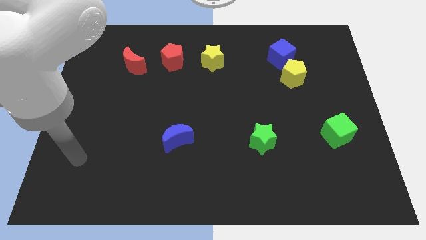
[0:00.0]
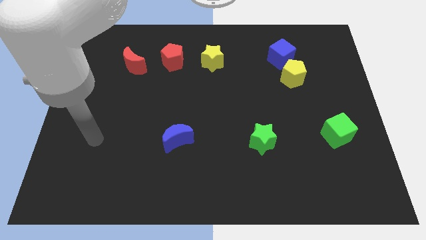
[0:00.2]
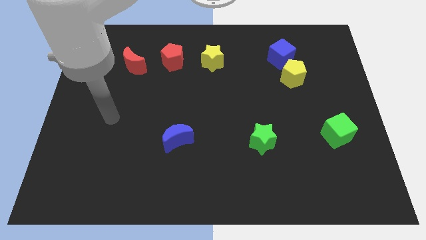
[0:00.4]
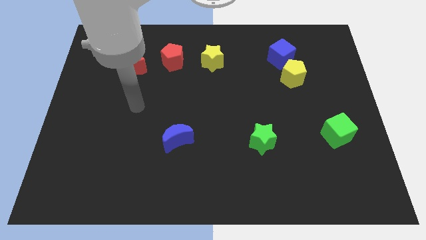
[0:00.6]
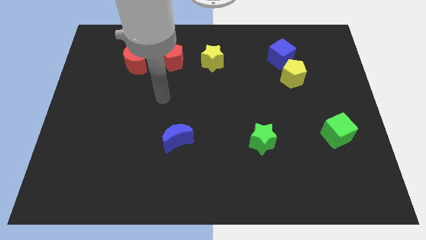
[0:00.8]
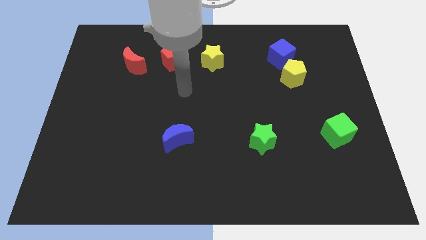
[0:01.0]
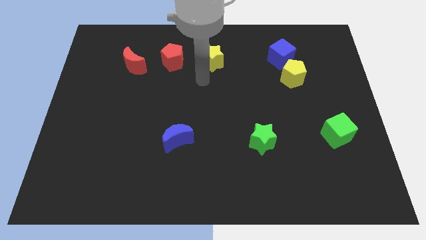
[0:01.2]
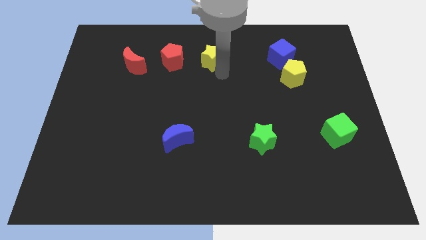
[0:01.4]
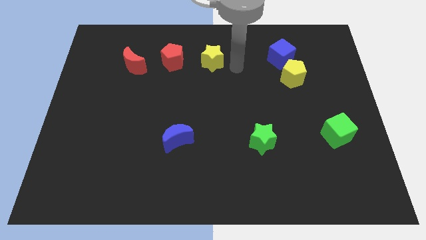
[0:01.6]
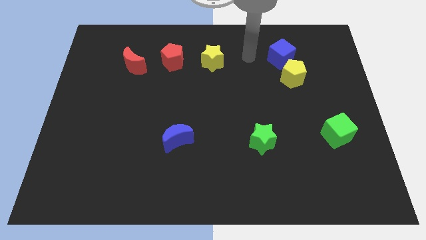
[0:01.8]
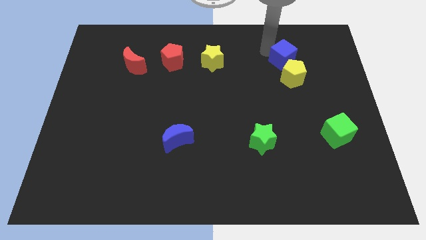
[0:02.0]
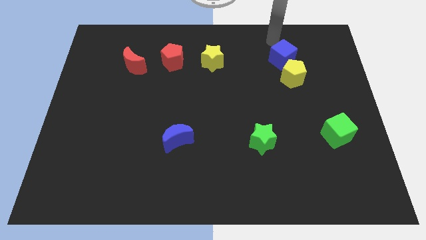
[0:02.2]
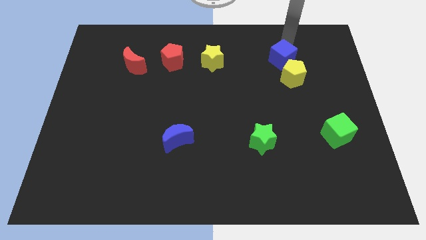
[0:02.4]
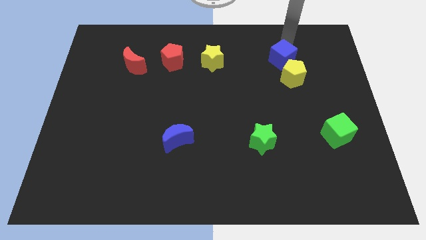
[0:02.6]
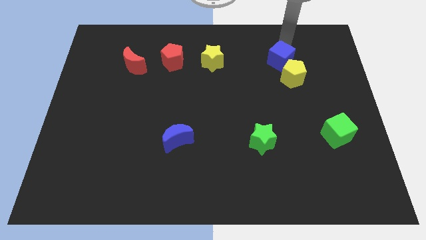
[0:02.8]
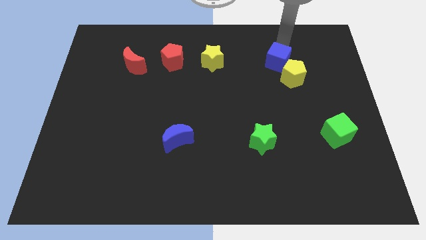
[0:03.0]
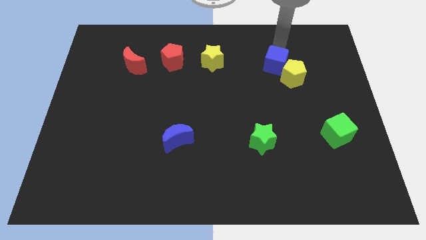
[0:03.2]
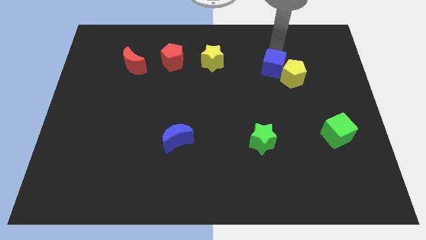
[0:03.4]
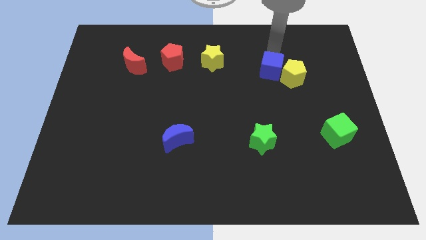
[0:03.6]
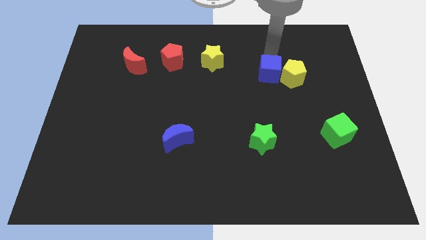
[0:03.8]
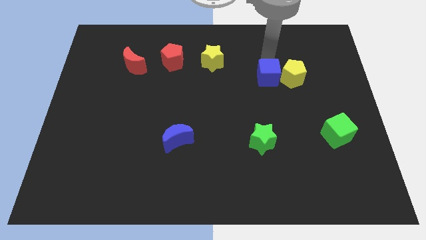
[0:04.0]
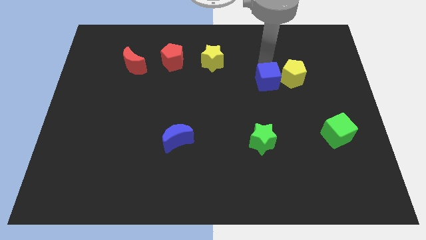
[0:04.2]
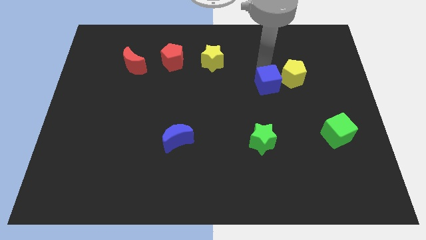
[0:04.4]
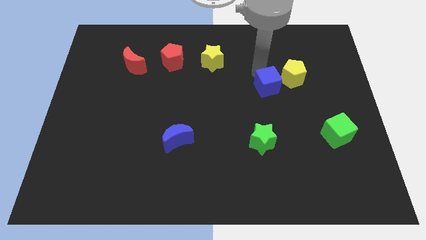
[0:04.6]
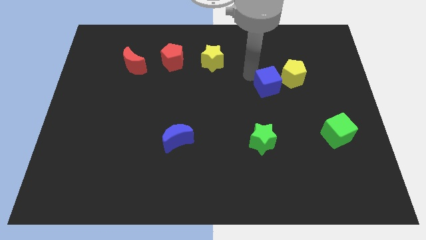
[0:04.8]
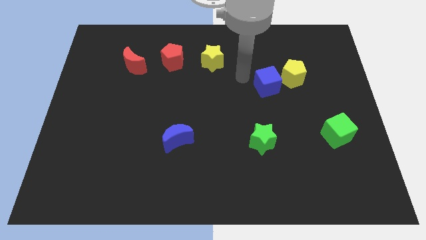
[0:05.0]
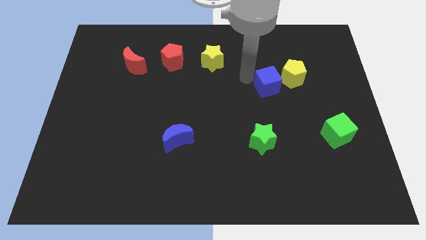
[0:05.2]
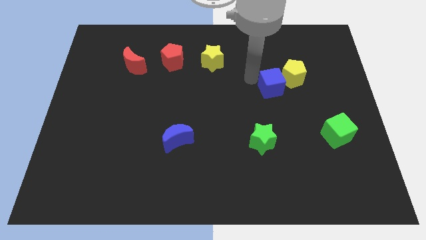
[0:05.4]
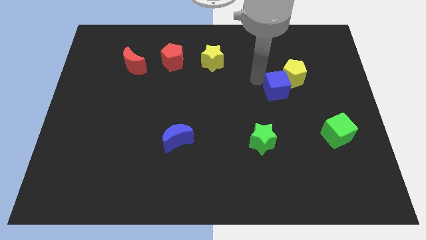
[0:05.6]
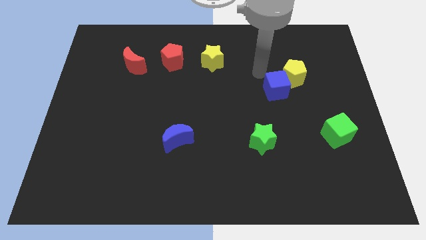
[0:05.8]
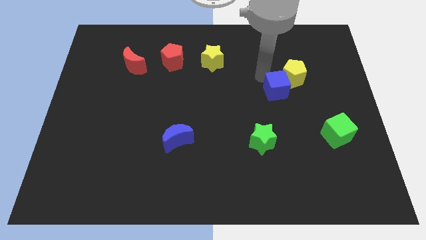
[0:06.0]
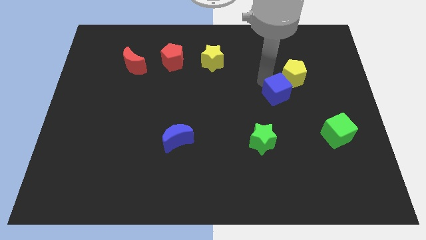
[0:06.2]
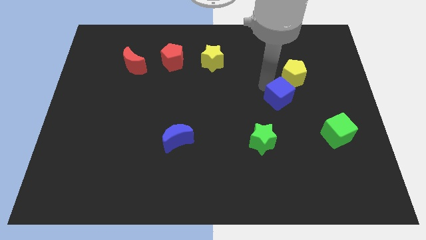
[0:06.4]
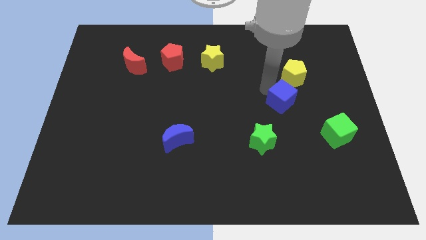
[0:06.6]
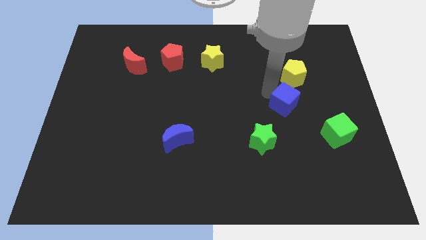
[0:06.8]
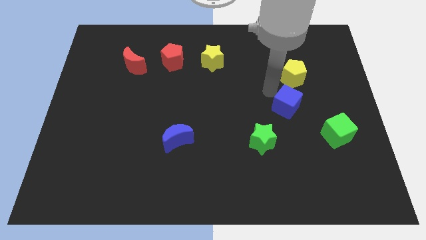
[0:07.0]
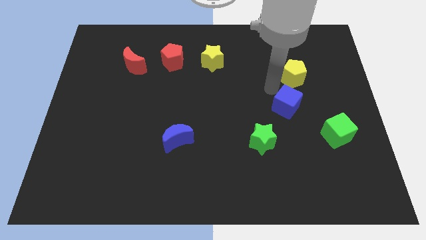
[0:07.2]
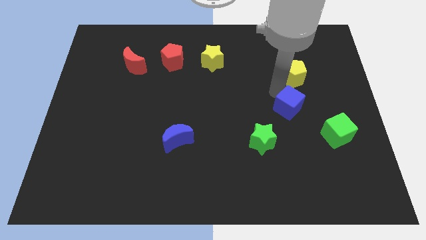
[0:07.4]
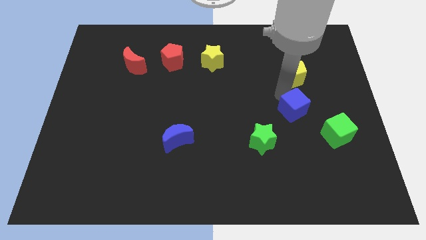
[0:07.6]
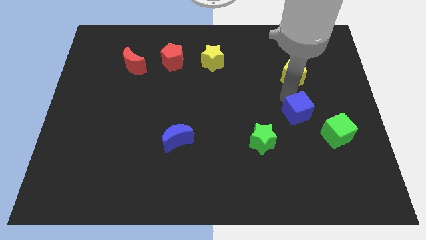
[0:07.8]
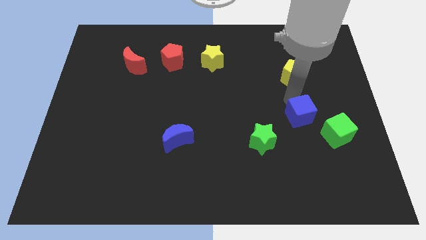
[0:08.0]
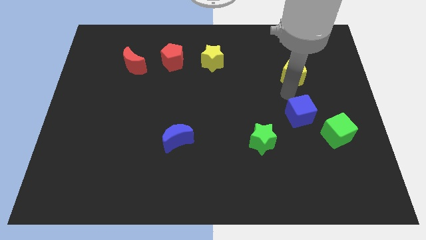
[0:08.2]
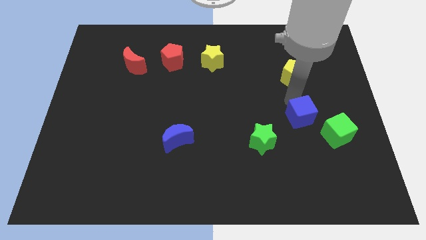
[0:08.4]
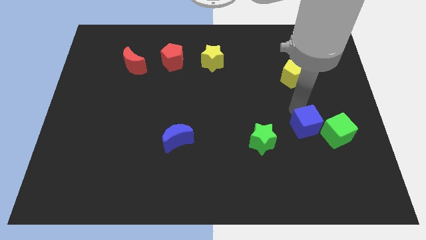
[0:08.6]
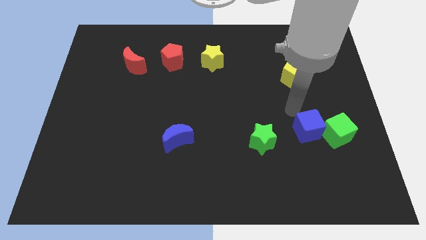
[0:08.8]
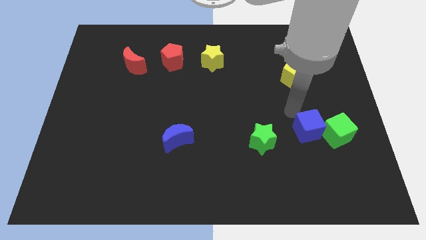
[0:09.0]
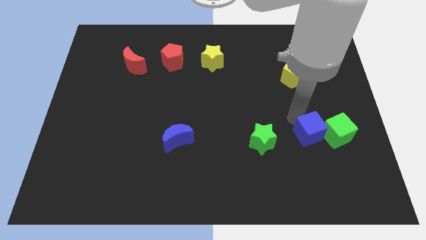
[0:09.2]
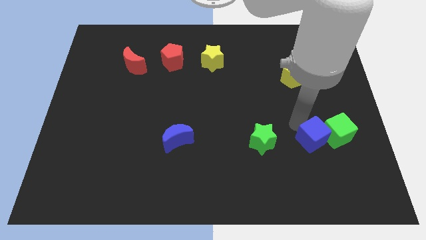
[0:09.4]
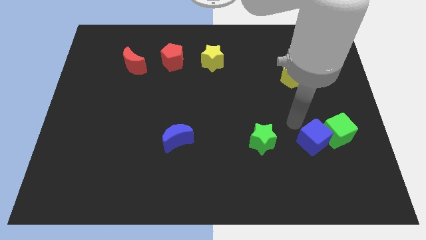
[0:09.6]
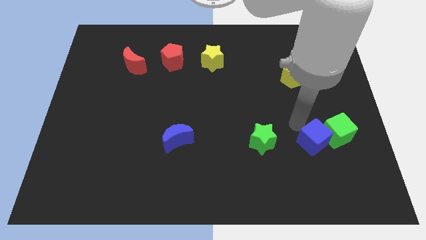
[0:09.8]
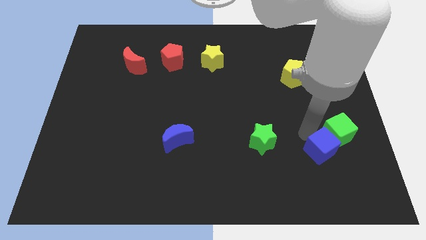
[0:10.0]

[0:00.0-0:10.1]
move the blue cube below the green cube
